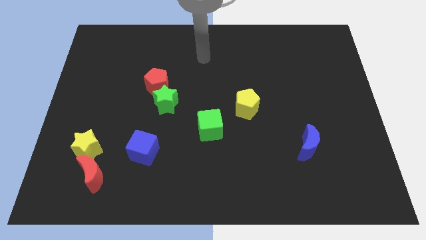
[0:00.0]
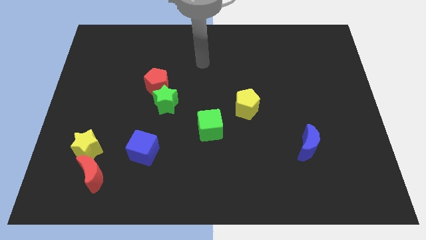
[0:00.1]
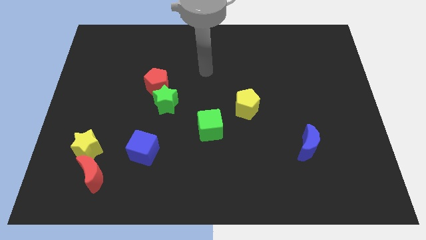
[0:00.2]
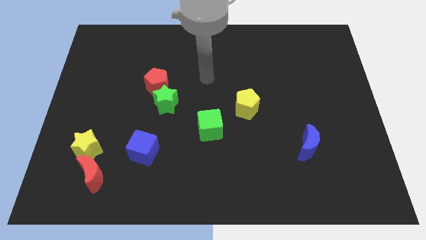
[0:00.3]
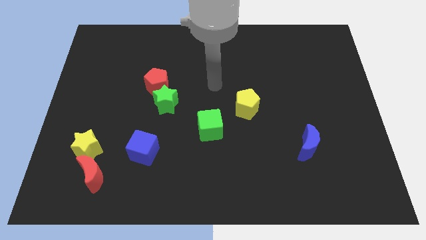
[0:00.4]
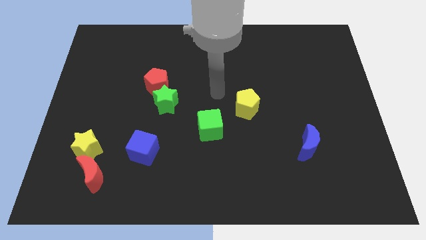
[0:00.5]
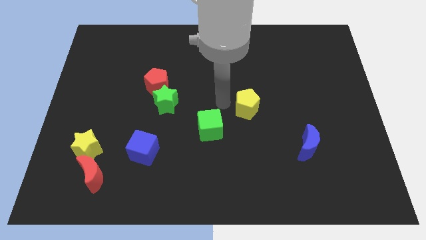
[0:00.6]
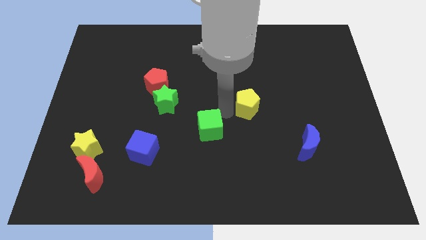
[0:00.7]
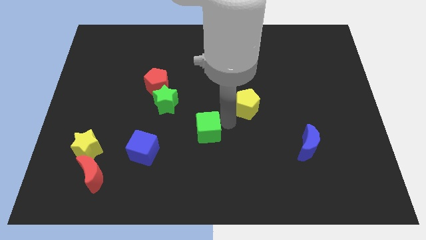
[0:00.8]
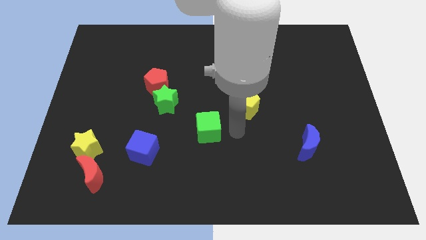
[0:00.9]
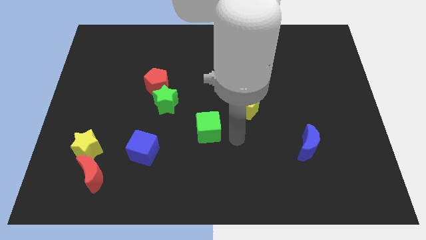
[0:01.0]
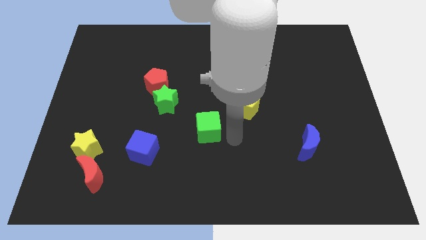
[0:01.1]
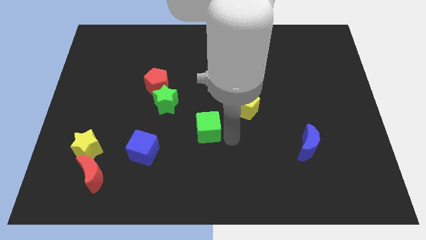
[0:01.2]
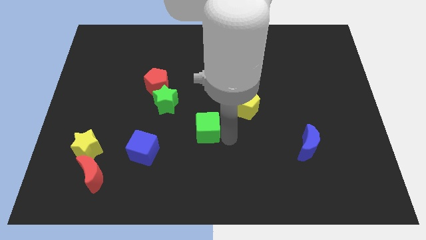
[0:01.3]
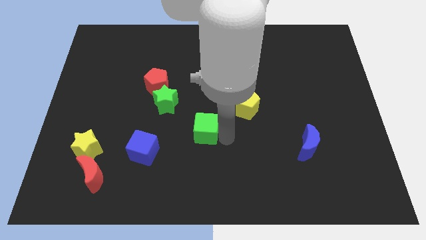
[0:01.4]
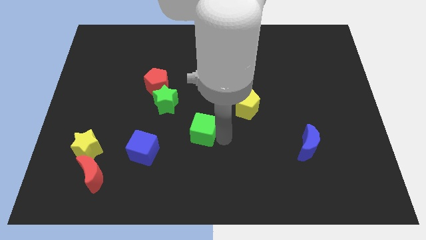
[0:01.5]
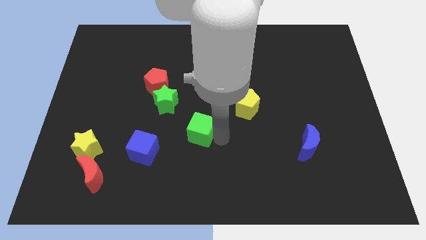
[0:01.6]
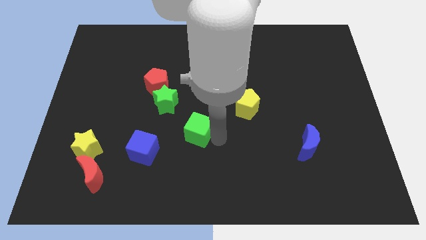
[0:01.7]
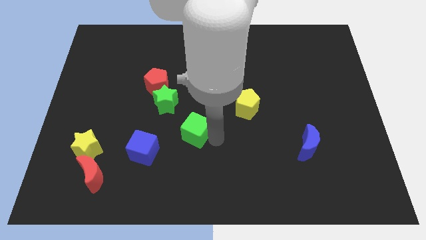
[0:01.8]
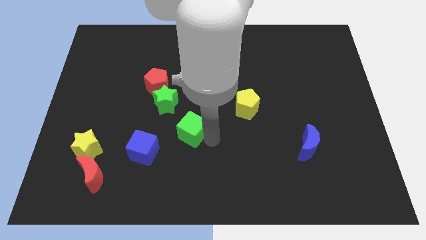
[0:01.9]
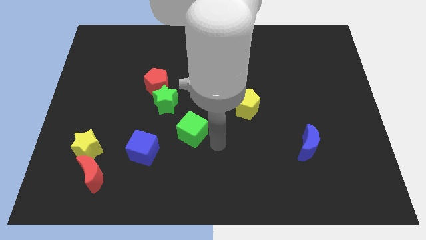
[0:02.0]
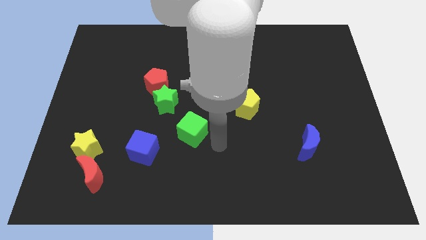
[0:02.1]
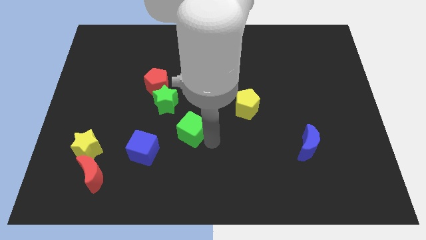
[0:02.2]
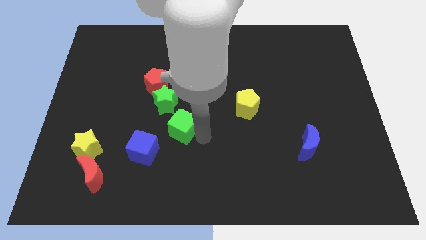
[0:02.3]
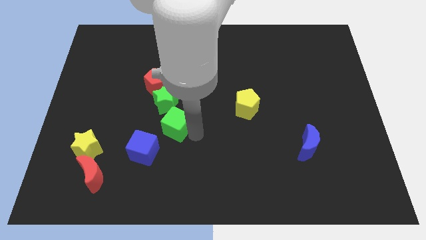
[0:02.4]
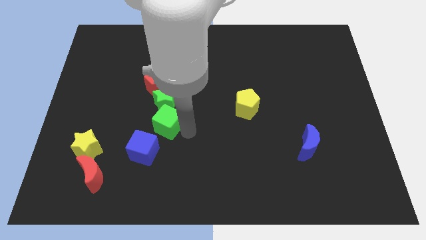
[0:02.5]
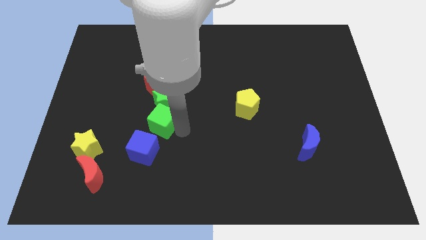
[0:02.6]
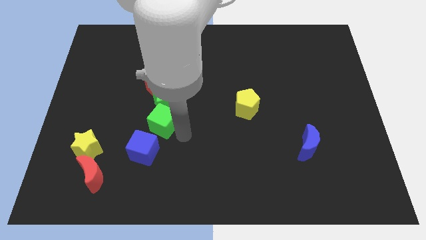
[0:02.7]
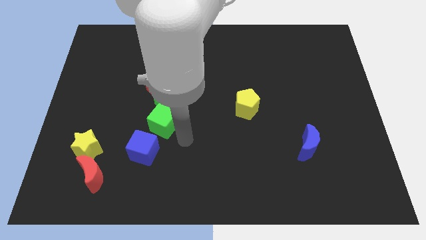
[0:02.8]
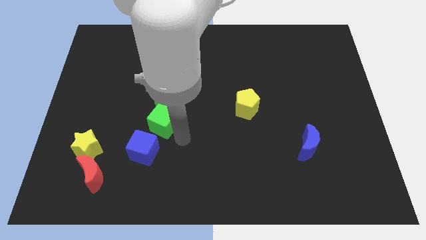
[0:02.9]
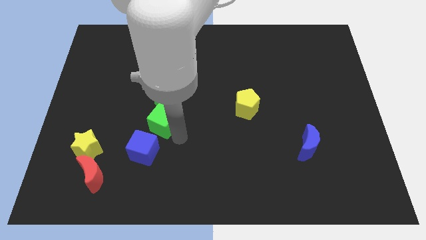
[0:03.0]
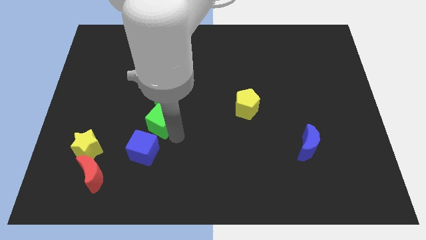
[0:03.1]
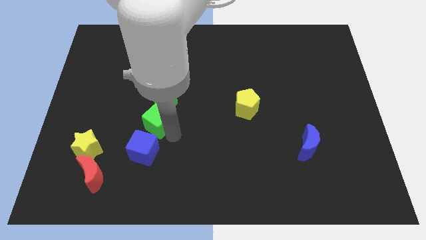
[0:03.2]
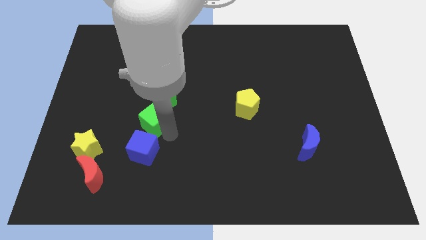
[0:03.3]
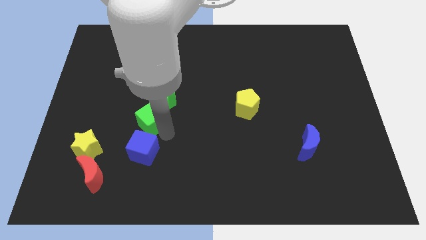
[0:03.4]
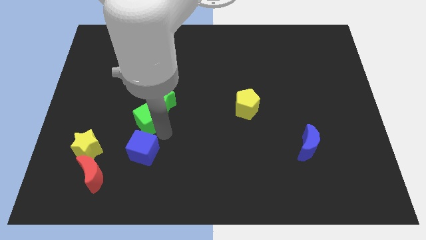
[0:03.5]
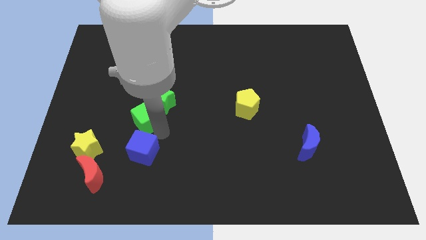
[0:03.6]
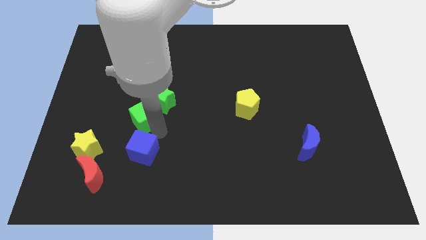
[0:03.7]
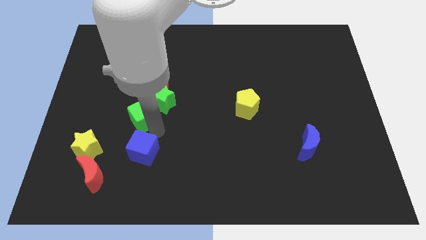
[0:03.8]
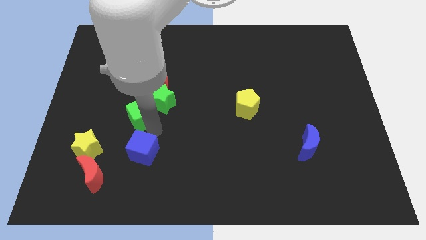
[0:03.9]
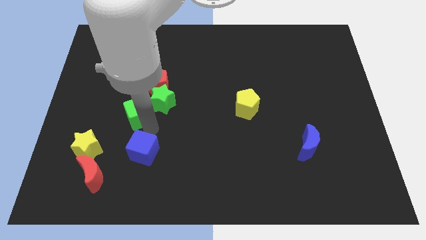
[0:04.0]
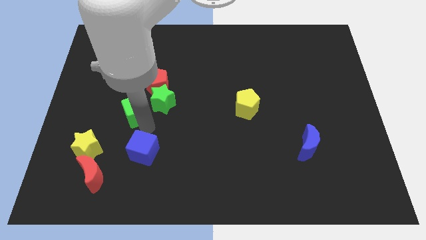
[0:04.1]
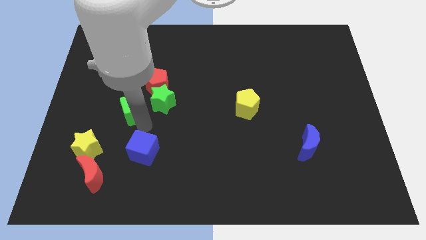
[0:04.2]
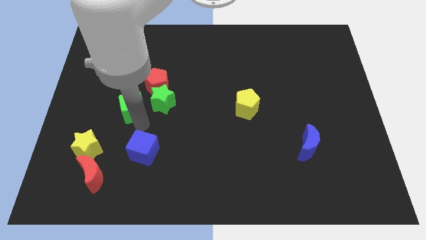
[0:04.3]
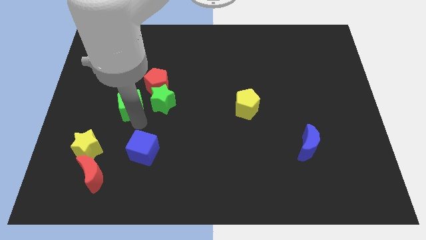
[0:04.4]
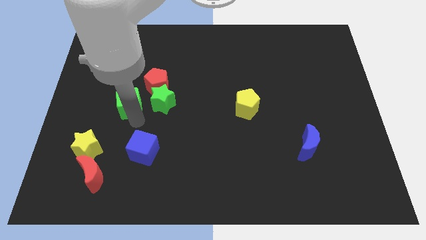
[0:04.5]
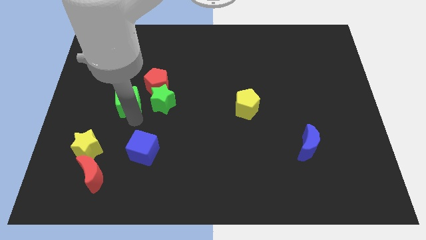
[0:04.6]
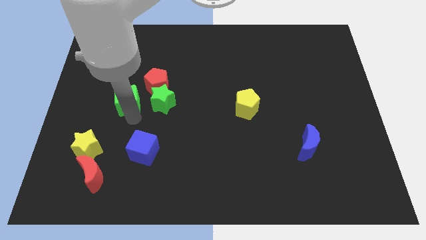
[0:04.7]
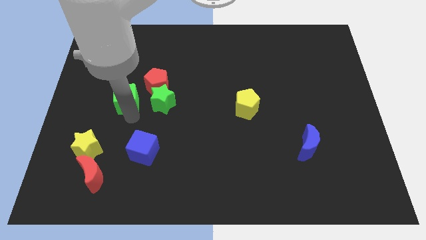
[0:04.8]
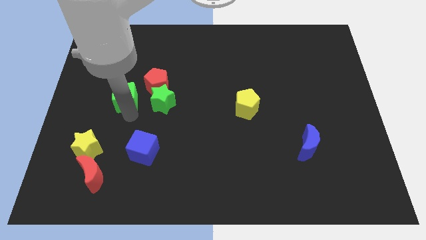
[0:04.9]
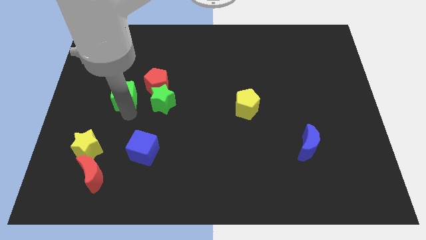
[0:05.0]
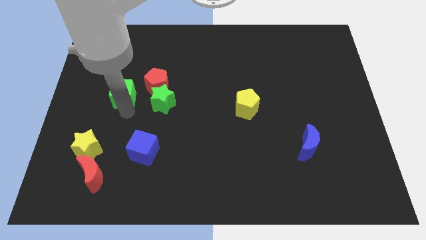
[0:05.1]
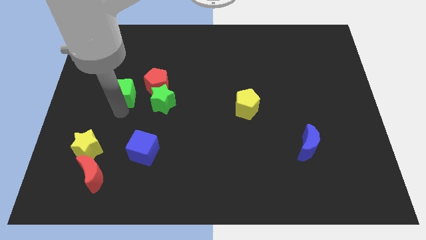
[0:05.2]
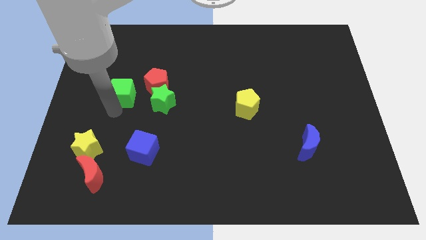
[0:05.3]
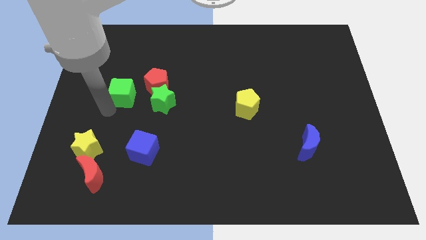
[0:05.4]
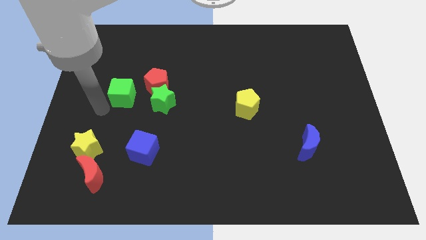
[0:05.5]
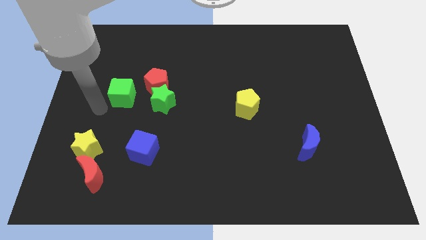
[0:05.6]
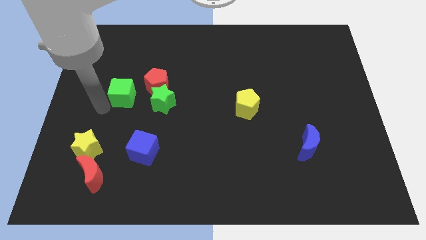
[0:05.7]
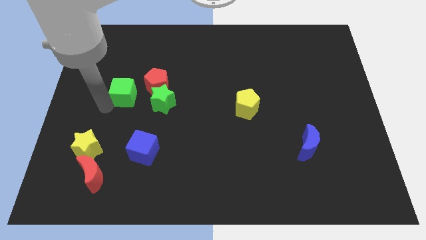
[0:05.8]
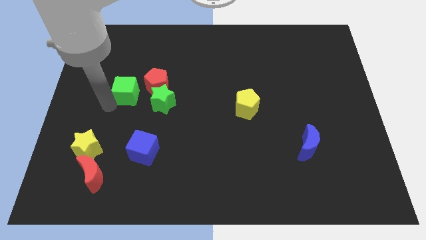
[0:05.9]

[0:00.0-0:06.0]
push the green cube diagonally up and to the left of the green star

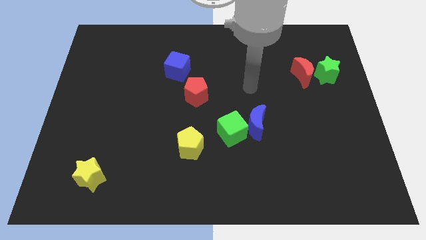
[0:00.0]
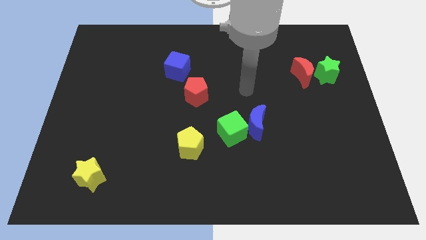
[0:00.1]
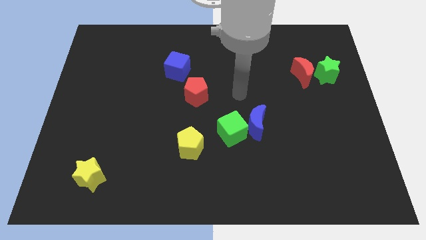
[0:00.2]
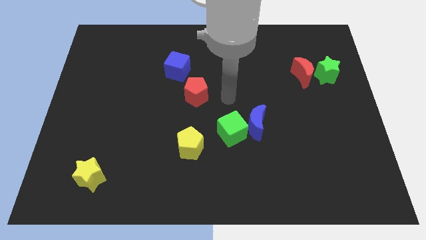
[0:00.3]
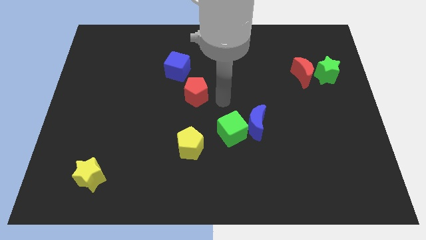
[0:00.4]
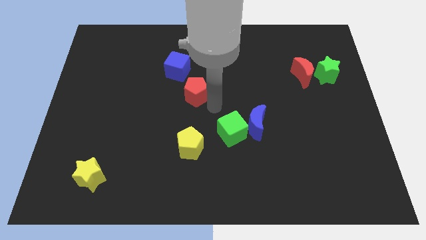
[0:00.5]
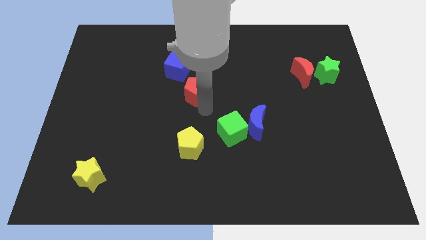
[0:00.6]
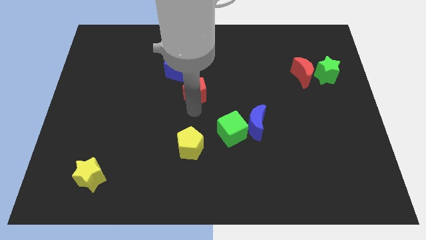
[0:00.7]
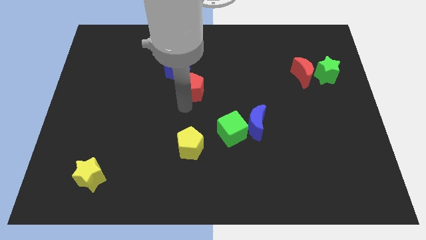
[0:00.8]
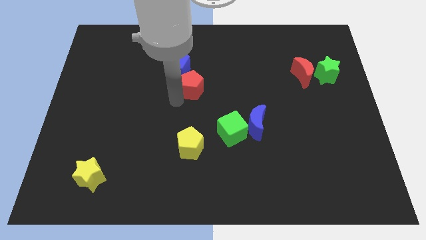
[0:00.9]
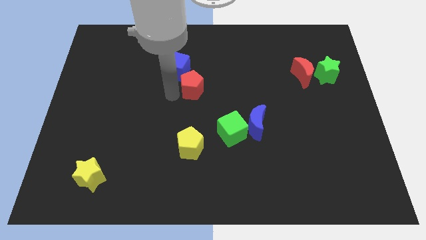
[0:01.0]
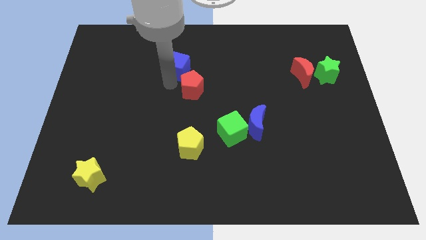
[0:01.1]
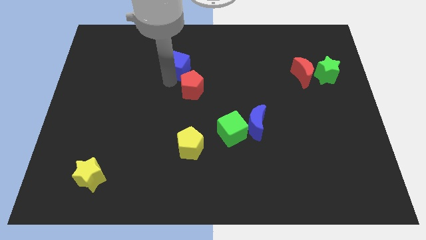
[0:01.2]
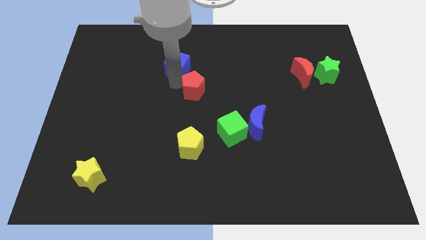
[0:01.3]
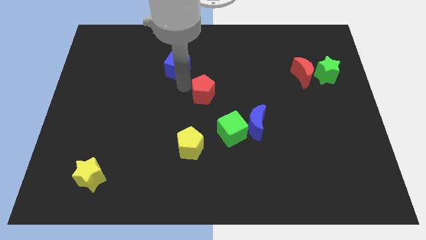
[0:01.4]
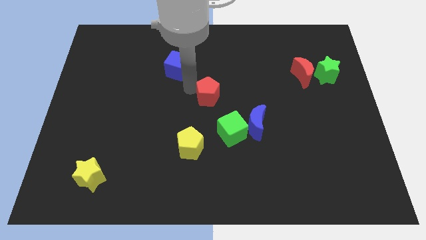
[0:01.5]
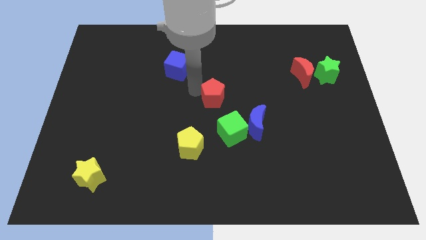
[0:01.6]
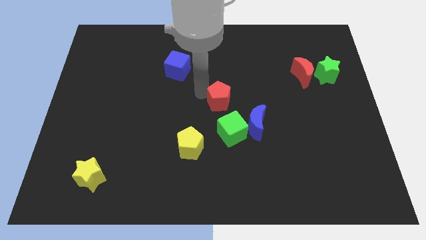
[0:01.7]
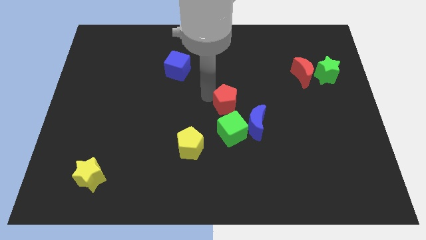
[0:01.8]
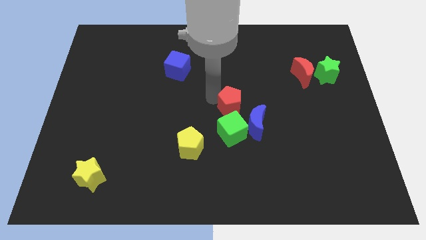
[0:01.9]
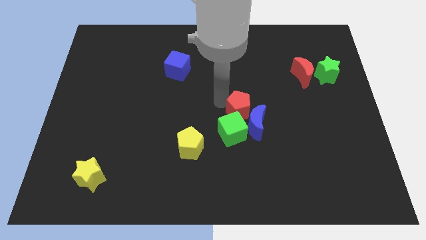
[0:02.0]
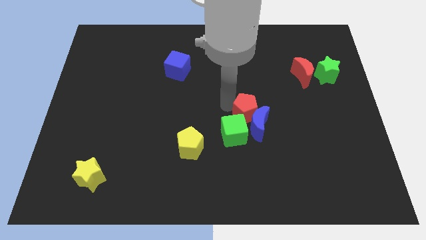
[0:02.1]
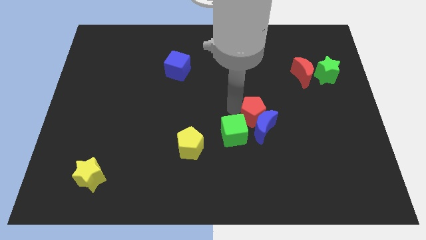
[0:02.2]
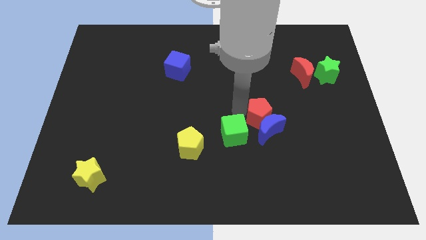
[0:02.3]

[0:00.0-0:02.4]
slide the red pentagon just right of the green cube
